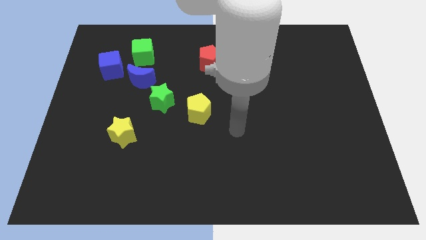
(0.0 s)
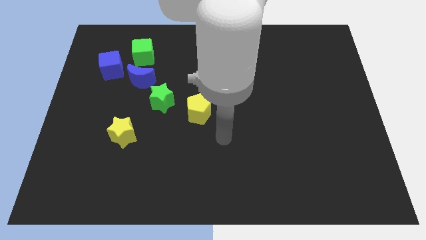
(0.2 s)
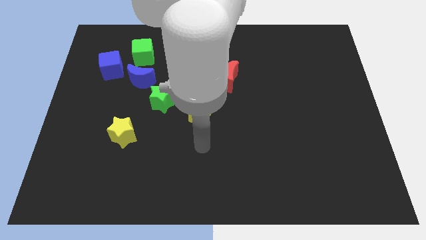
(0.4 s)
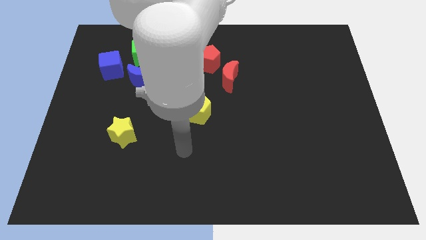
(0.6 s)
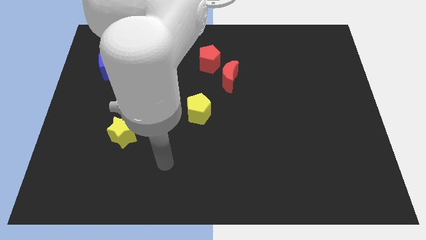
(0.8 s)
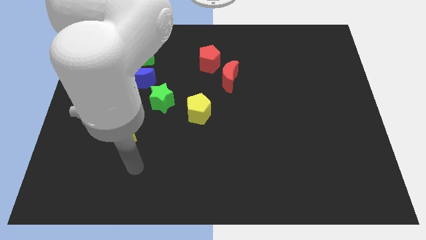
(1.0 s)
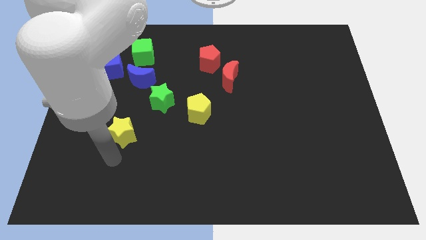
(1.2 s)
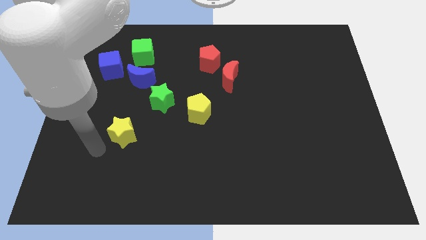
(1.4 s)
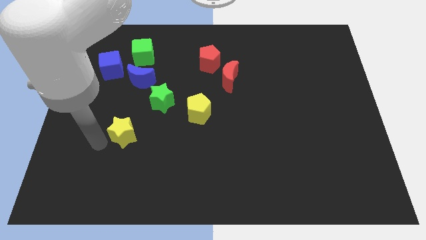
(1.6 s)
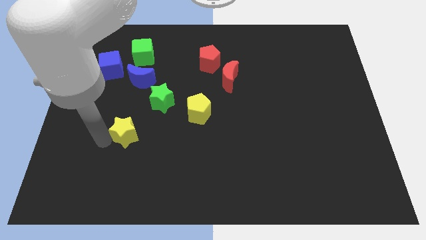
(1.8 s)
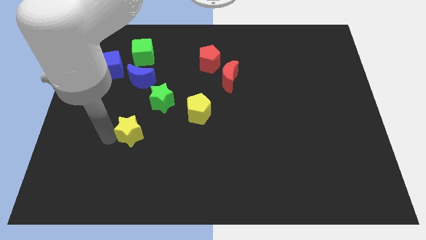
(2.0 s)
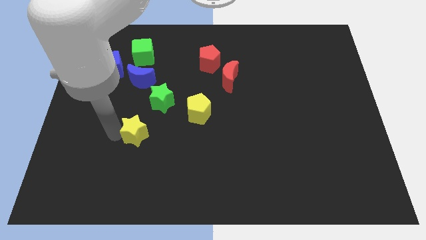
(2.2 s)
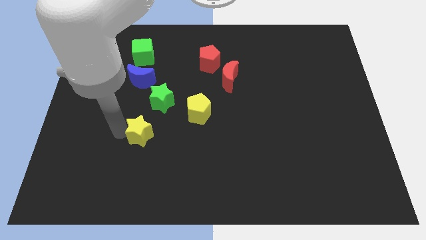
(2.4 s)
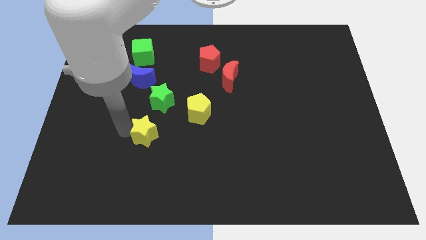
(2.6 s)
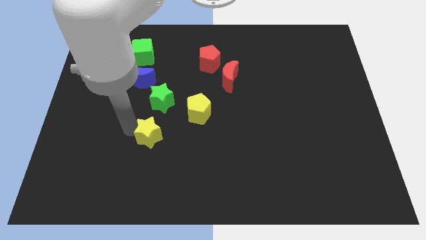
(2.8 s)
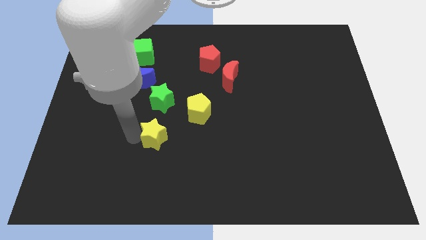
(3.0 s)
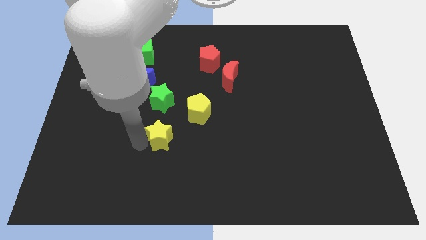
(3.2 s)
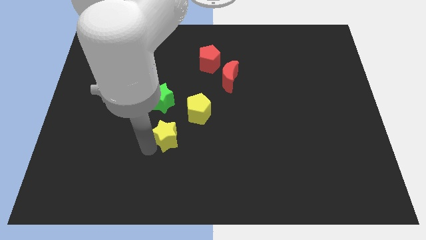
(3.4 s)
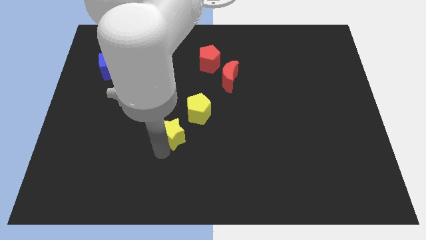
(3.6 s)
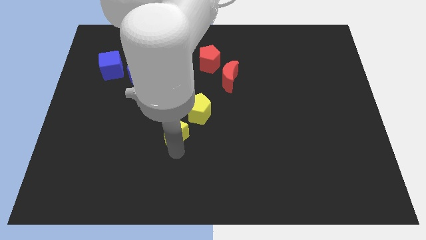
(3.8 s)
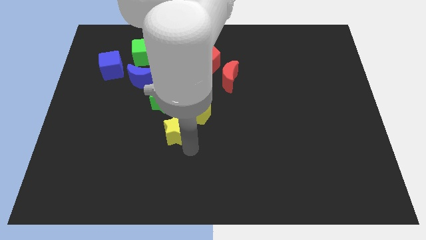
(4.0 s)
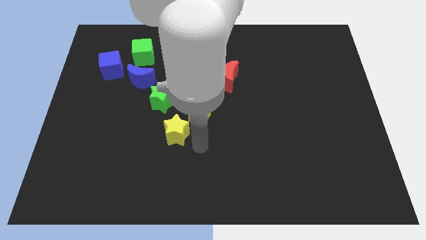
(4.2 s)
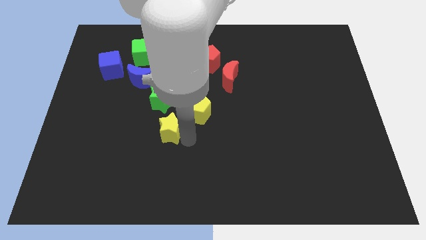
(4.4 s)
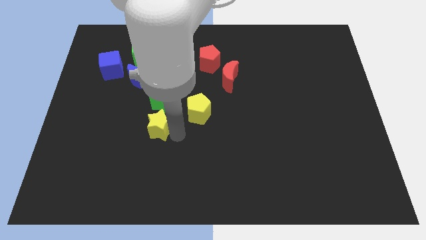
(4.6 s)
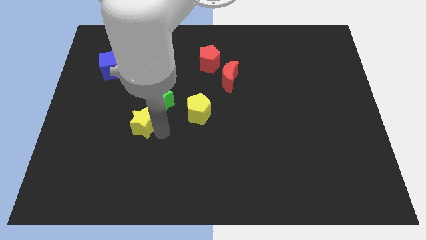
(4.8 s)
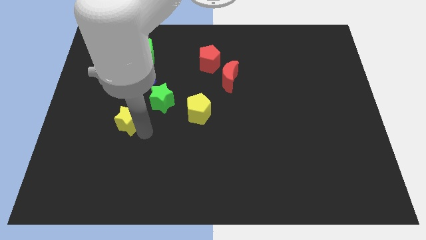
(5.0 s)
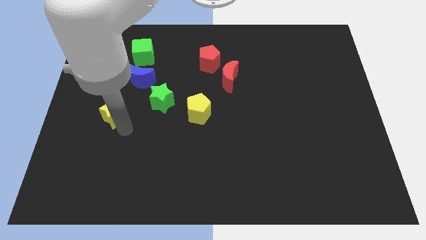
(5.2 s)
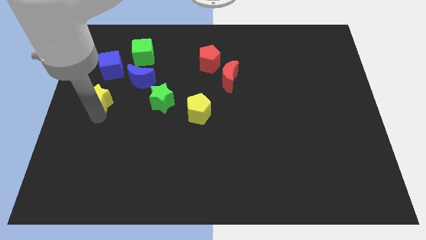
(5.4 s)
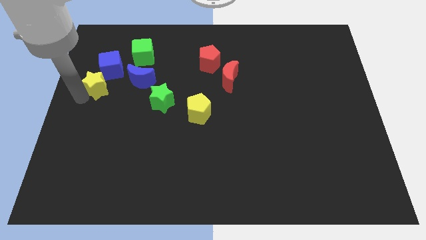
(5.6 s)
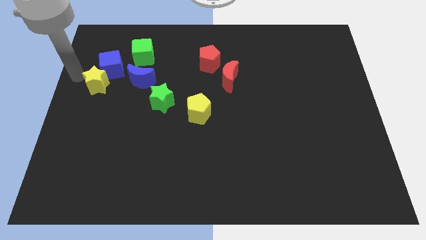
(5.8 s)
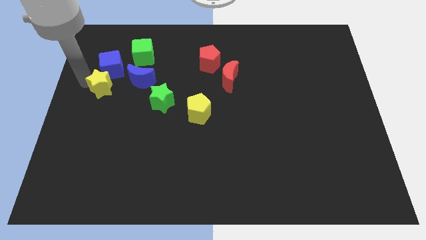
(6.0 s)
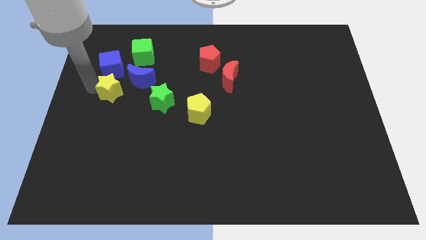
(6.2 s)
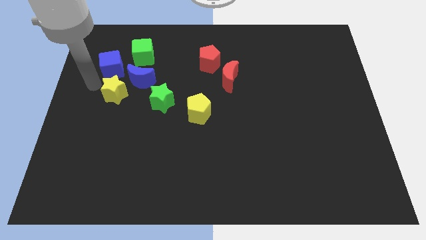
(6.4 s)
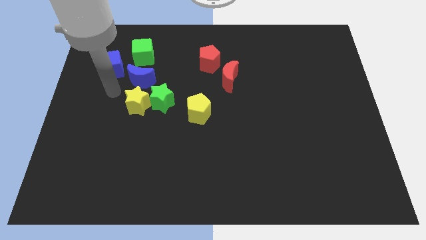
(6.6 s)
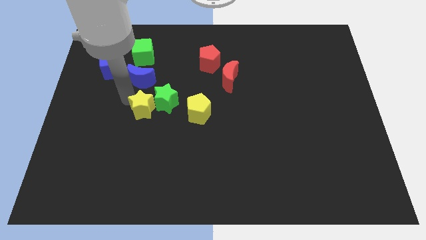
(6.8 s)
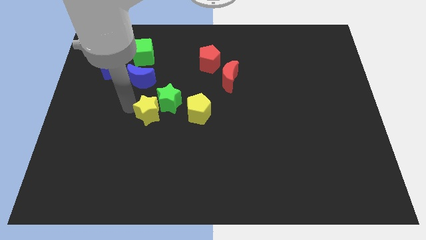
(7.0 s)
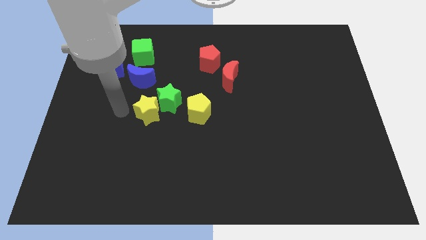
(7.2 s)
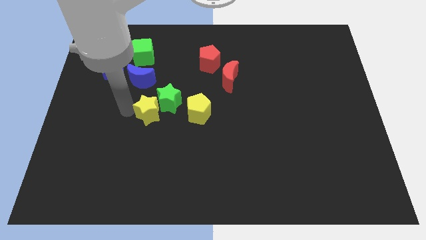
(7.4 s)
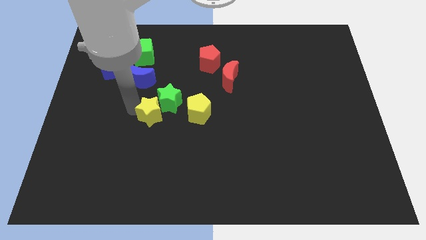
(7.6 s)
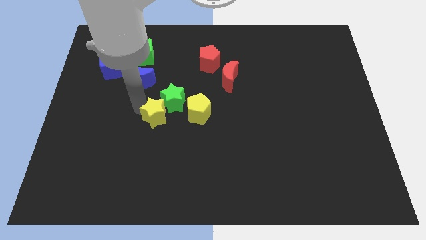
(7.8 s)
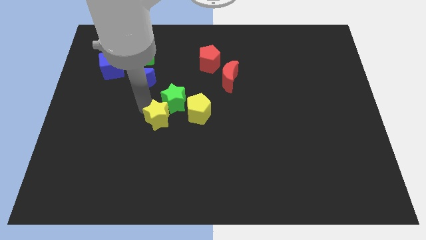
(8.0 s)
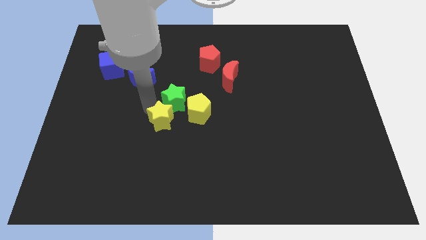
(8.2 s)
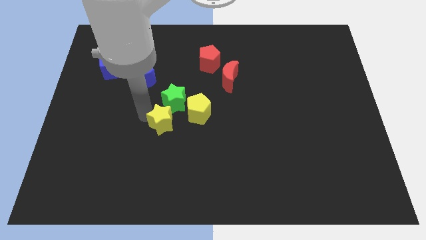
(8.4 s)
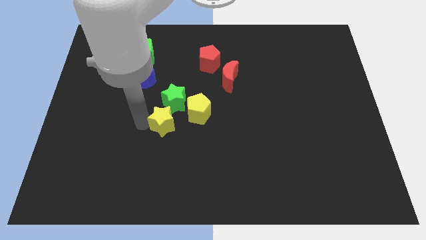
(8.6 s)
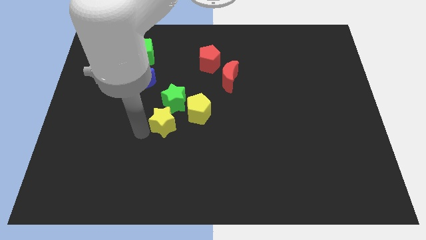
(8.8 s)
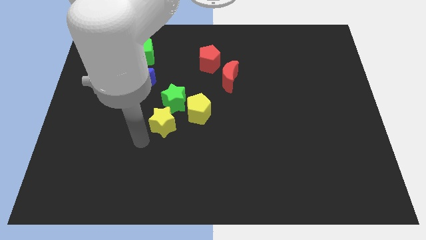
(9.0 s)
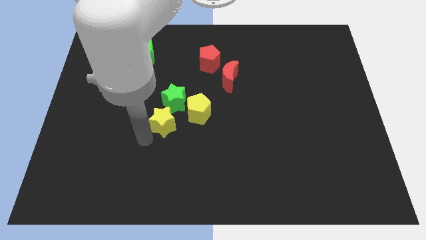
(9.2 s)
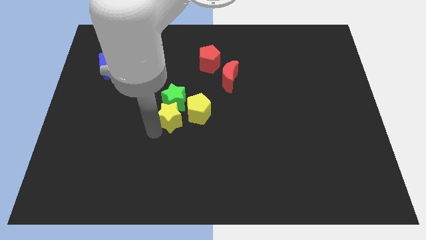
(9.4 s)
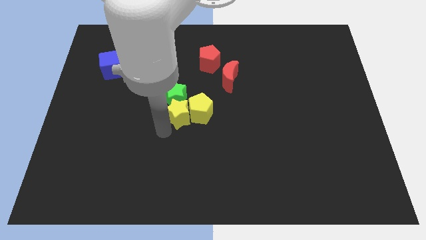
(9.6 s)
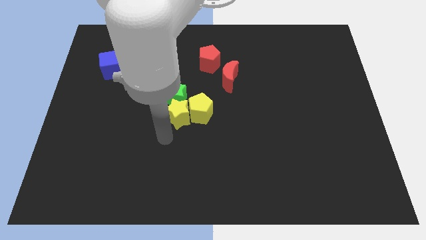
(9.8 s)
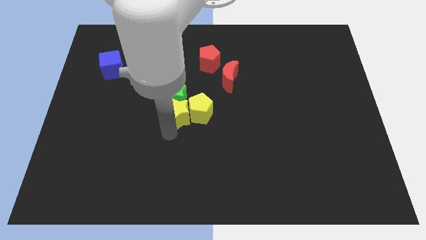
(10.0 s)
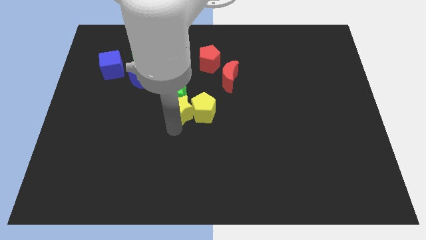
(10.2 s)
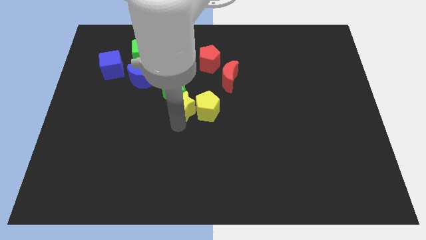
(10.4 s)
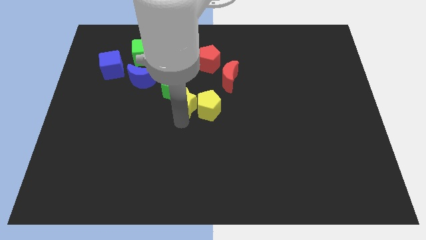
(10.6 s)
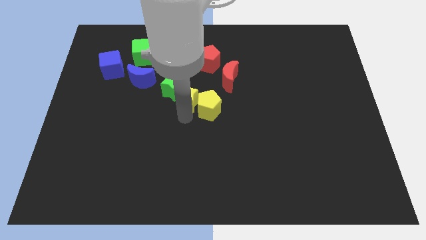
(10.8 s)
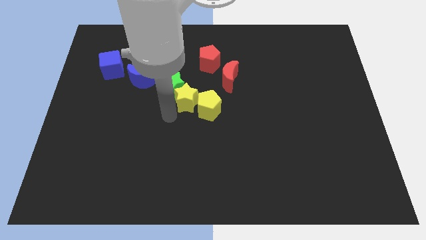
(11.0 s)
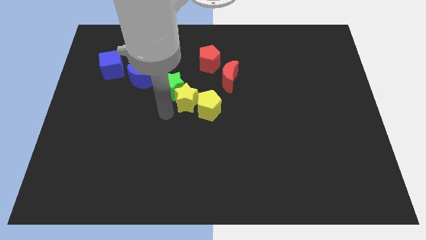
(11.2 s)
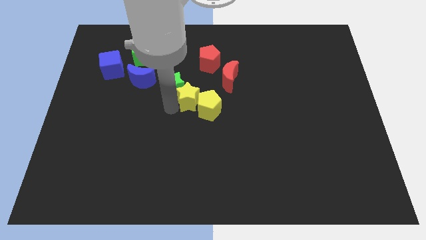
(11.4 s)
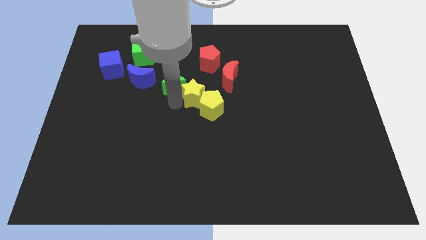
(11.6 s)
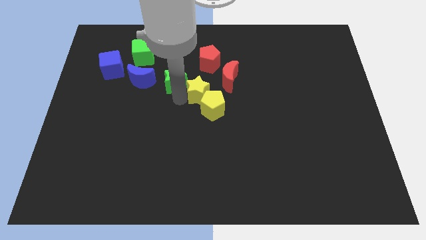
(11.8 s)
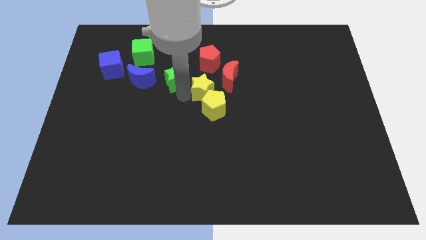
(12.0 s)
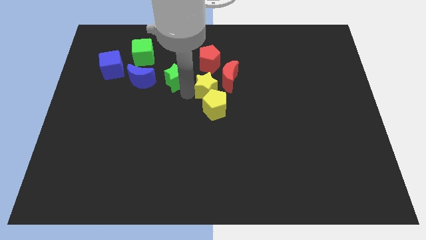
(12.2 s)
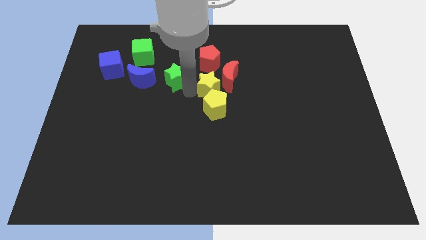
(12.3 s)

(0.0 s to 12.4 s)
put the yellow star to the red moon

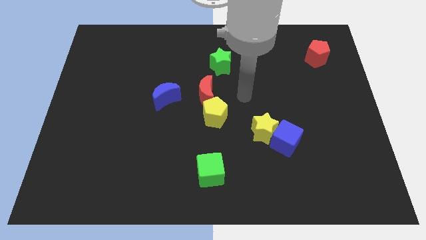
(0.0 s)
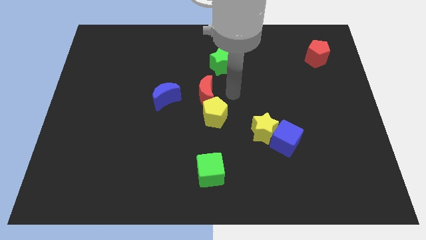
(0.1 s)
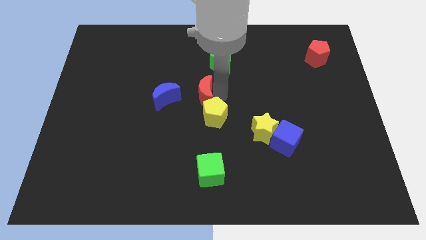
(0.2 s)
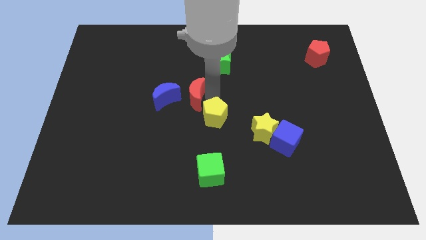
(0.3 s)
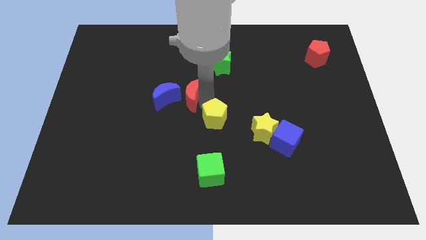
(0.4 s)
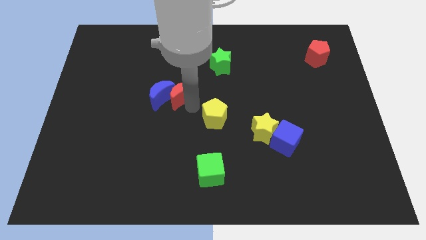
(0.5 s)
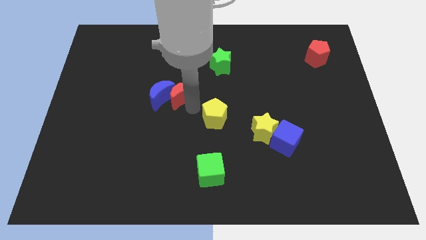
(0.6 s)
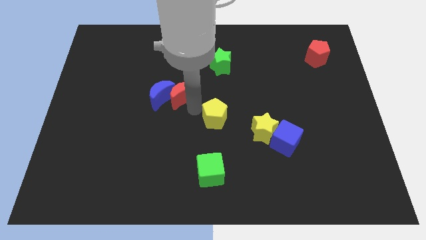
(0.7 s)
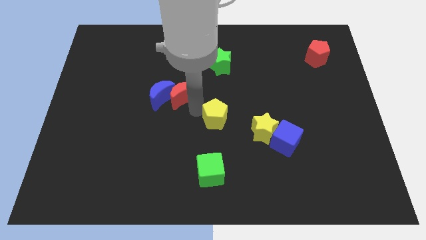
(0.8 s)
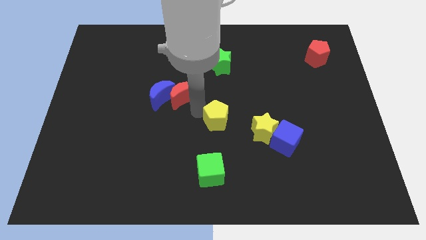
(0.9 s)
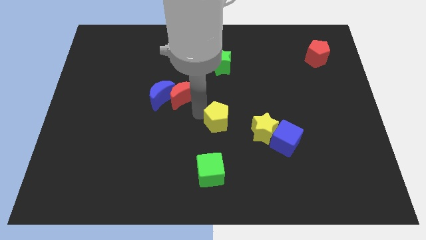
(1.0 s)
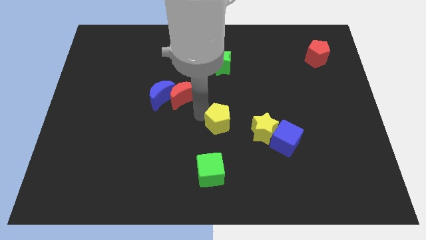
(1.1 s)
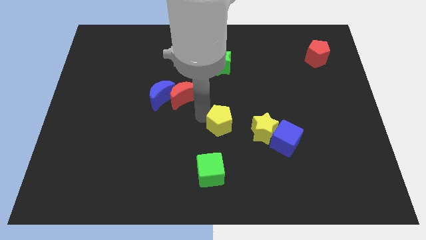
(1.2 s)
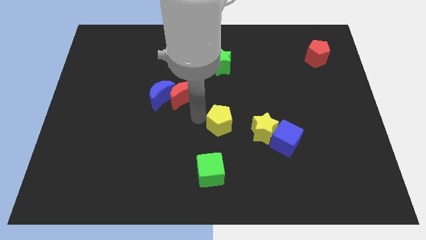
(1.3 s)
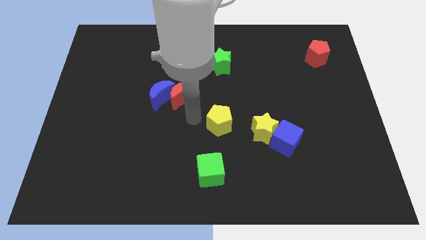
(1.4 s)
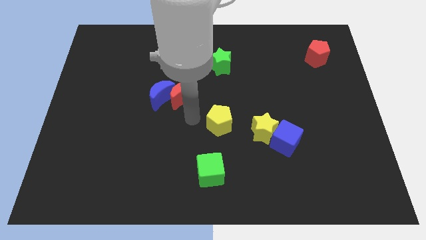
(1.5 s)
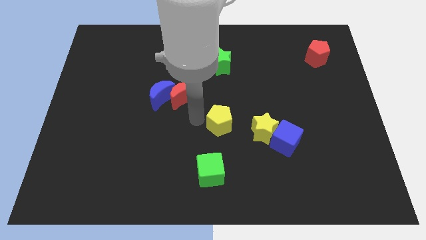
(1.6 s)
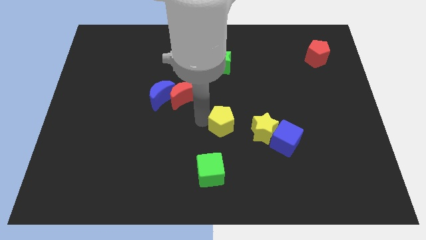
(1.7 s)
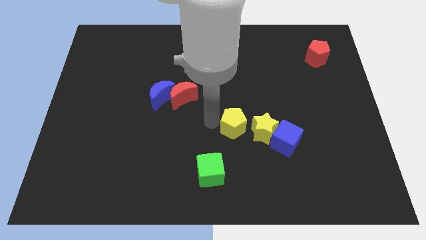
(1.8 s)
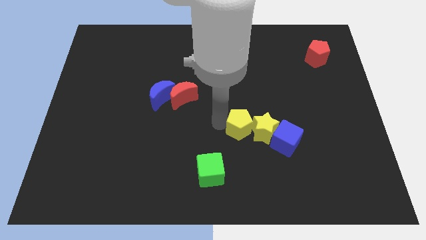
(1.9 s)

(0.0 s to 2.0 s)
put the yellow pentagon towards the yellow star
